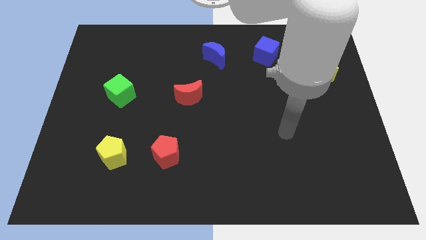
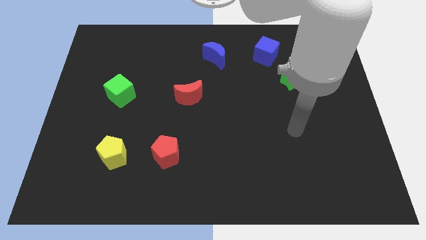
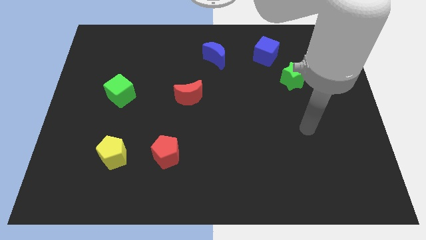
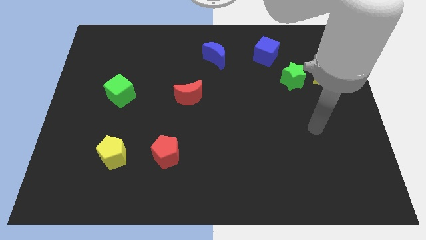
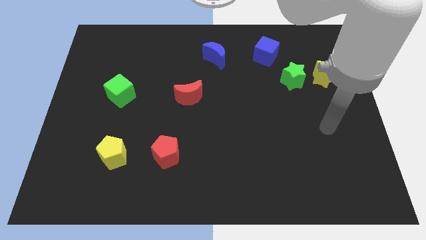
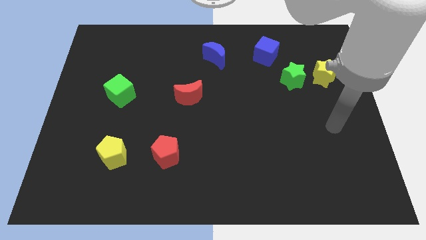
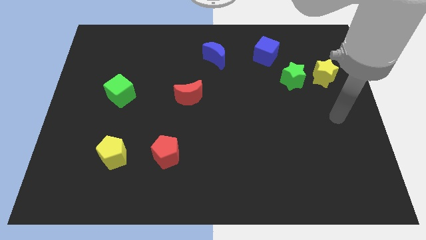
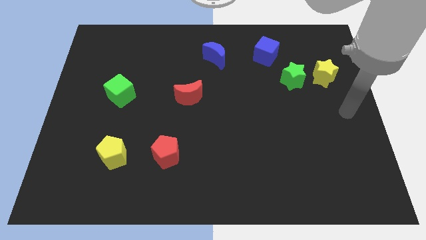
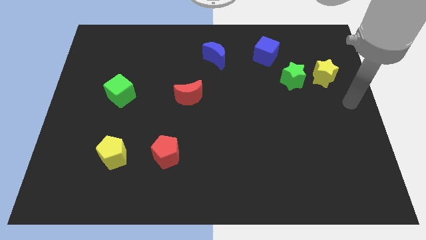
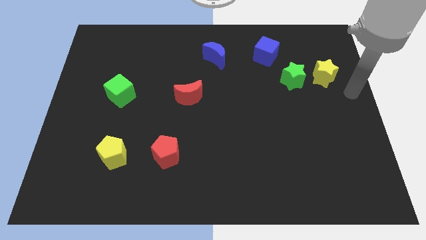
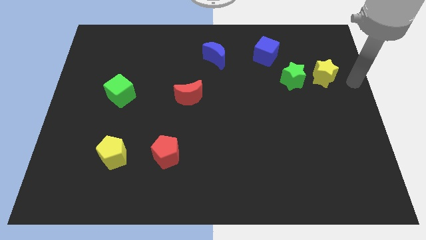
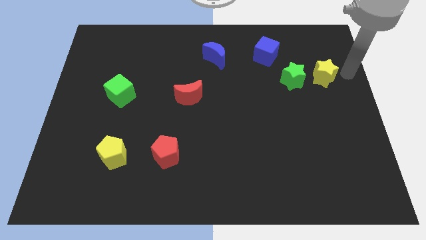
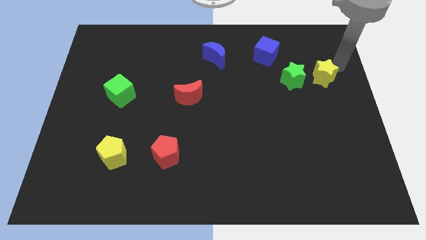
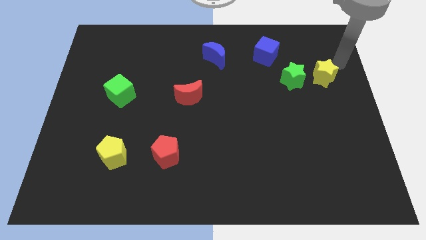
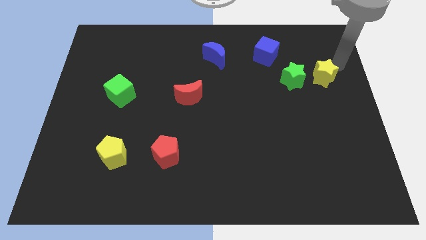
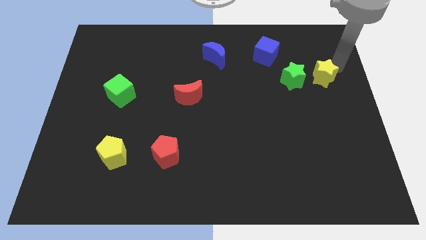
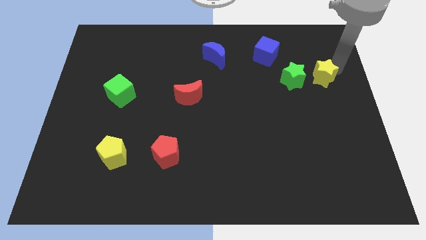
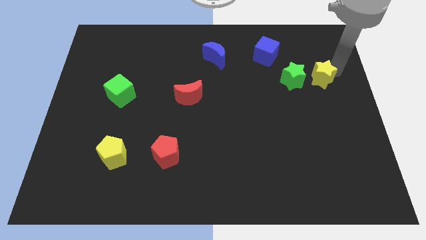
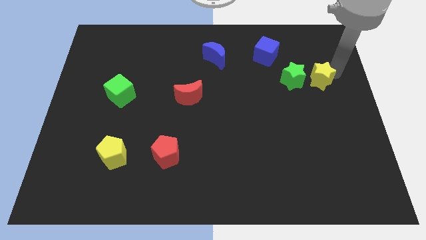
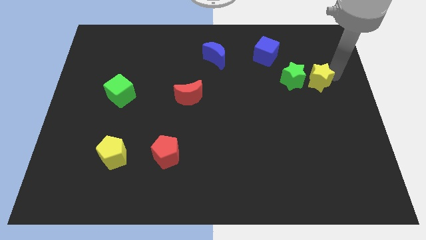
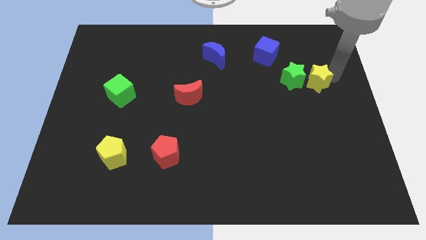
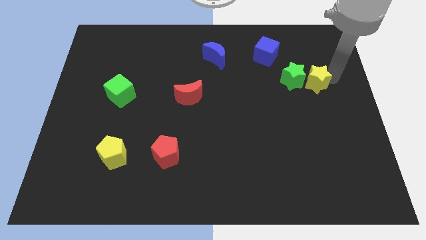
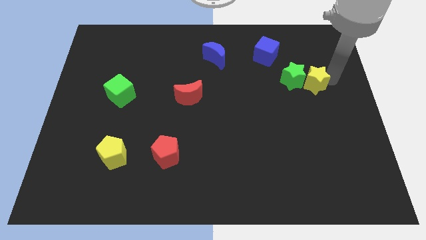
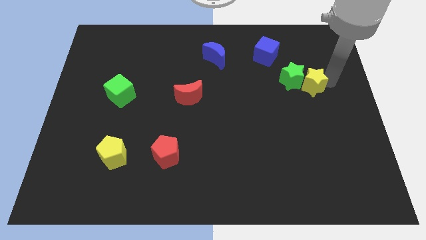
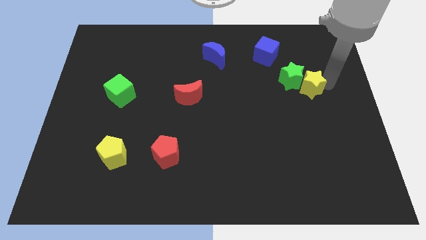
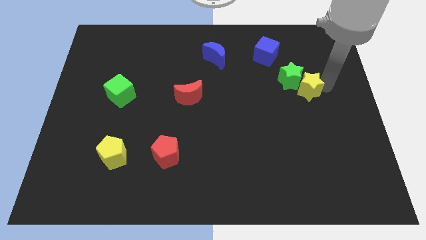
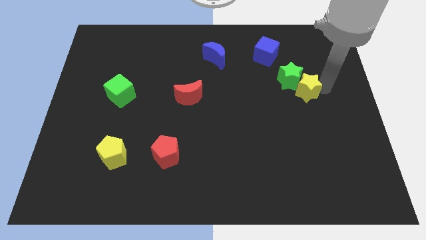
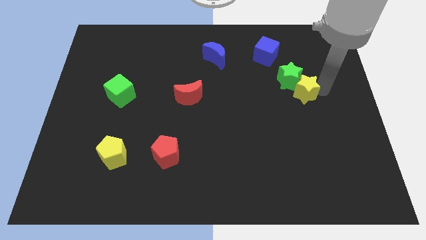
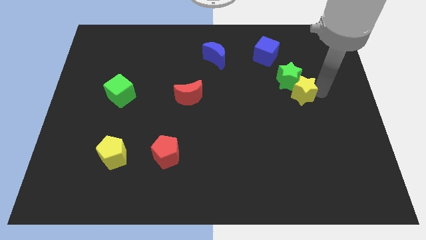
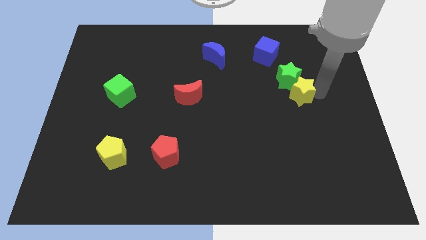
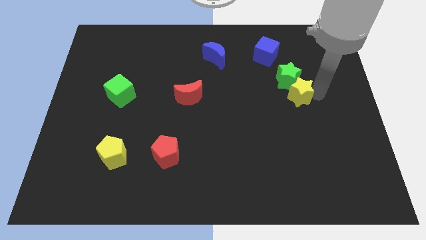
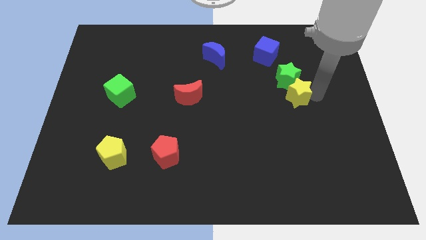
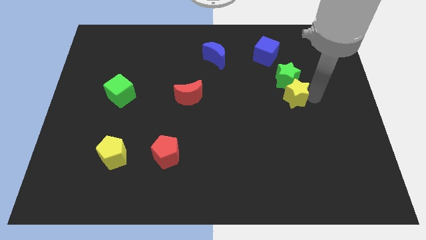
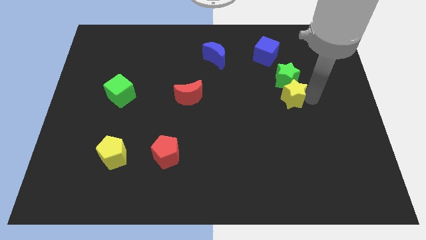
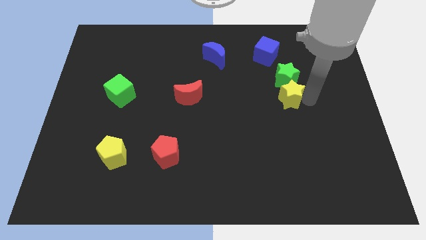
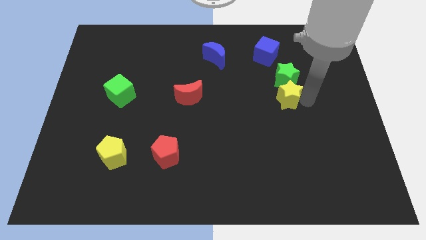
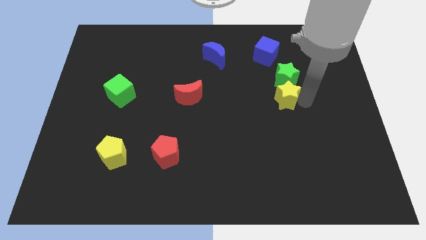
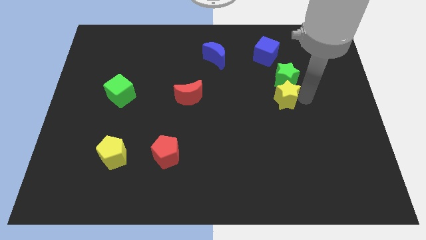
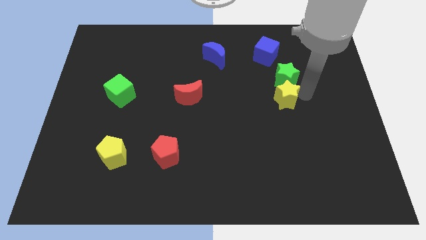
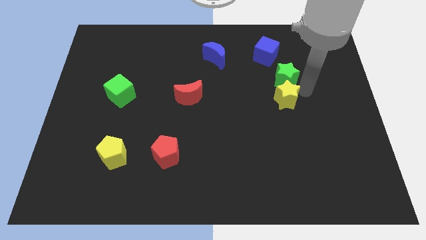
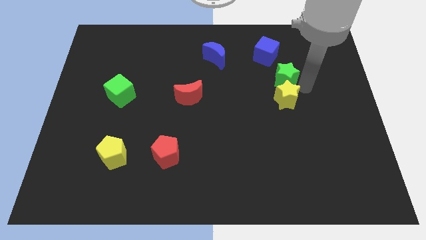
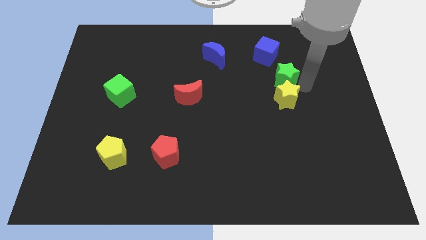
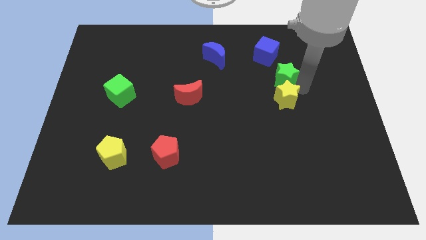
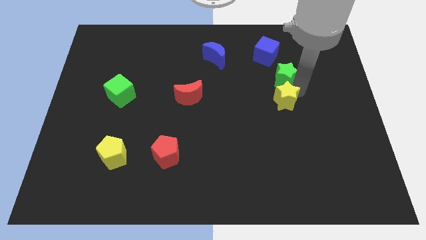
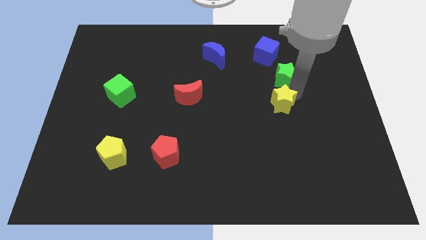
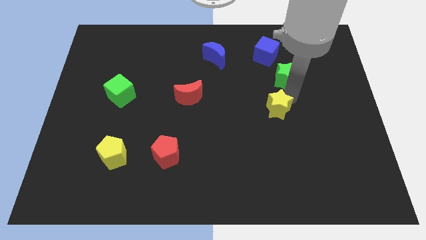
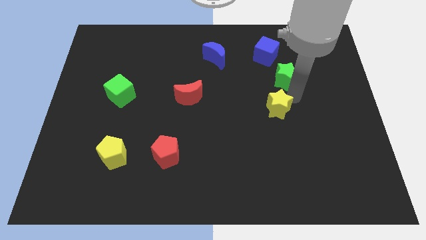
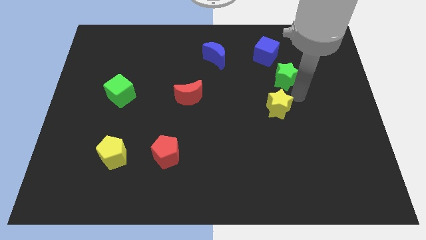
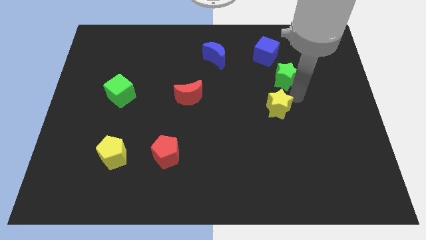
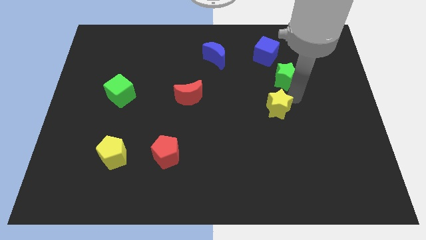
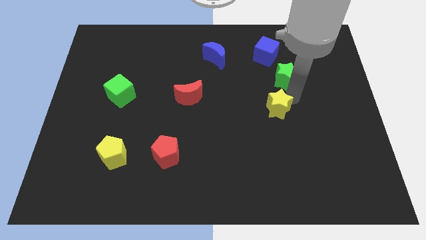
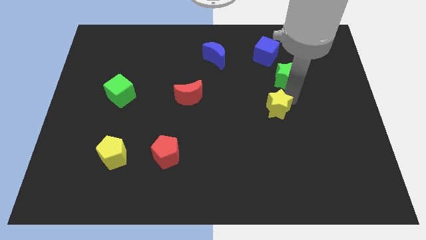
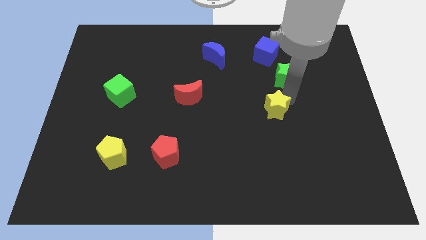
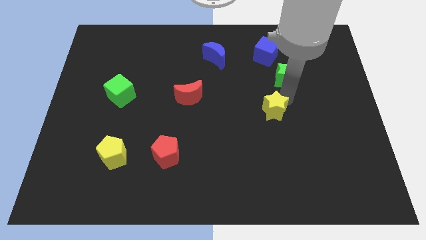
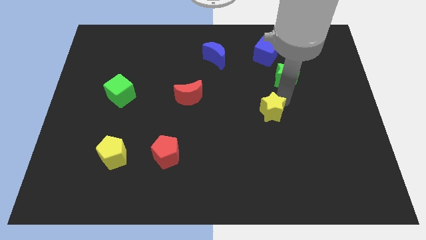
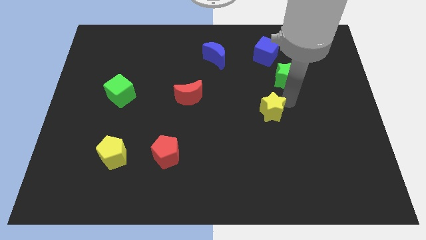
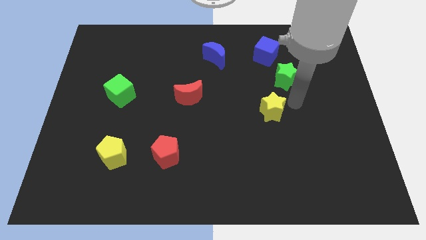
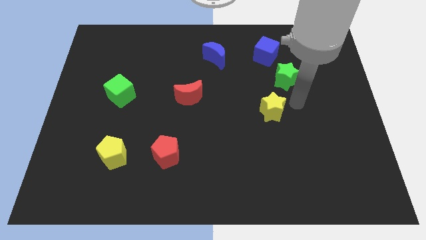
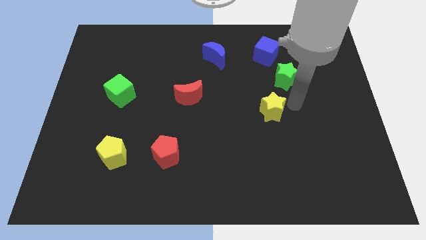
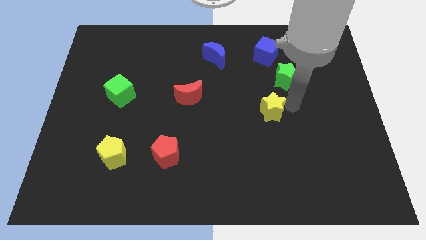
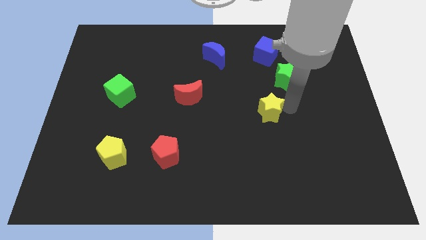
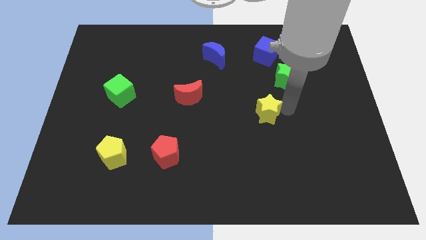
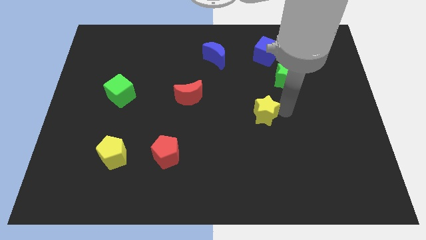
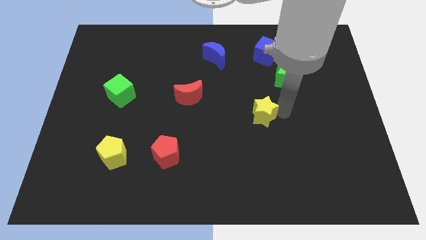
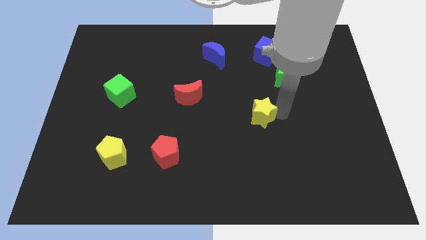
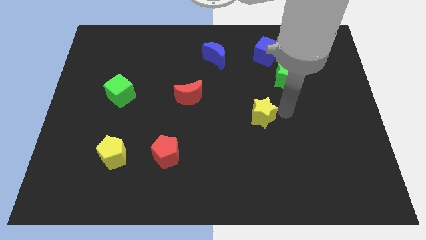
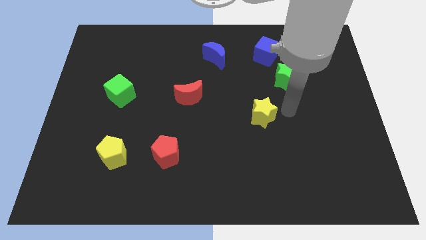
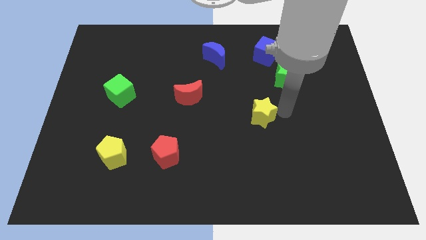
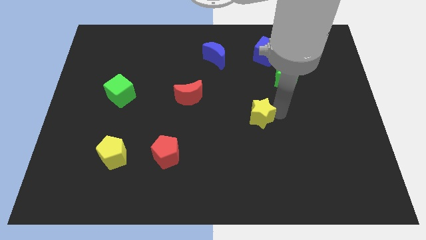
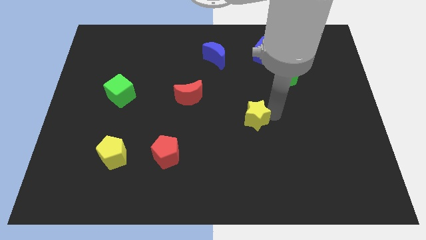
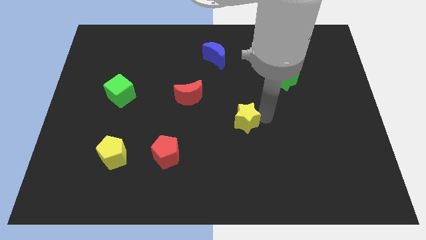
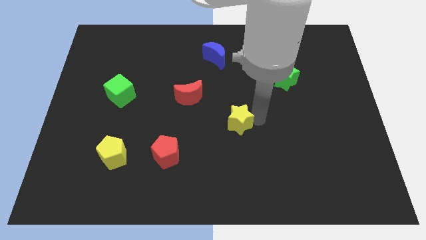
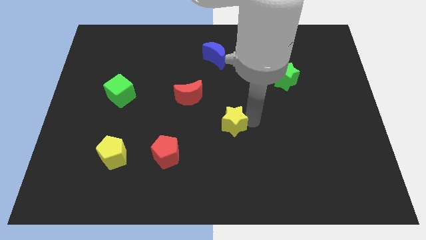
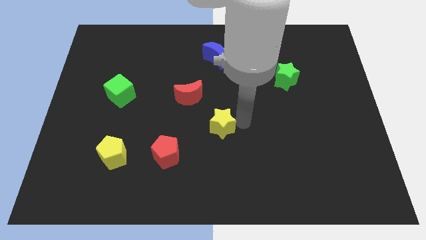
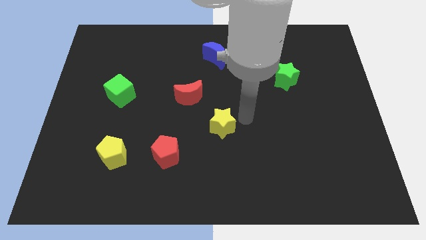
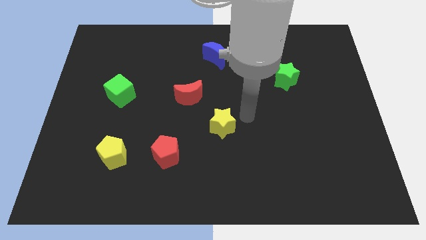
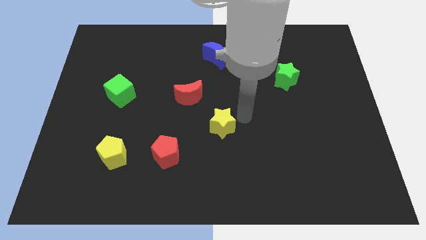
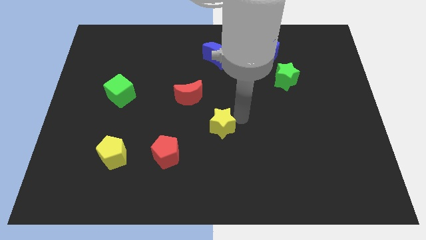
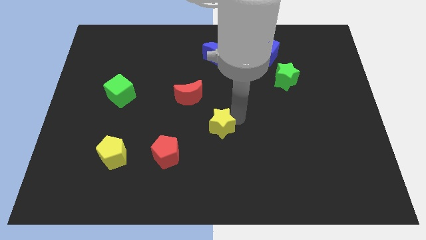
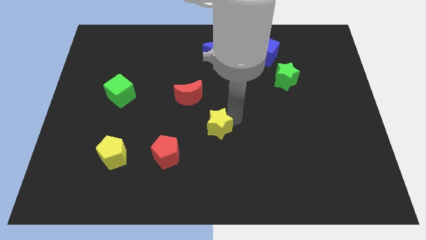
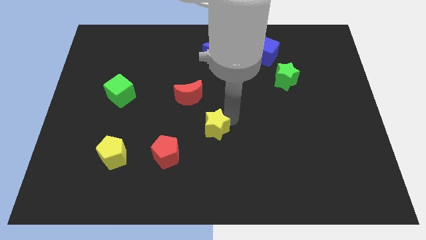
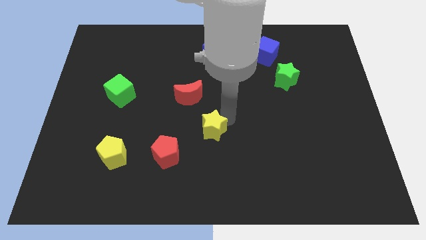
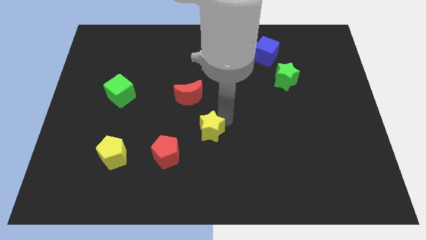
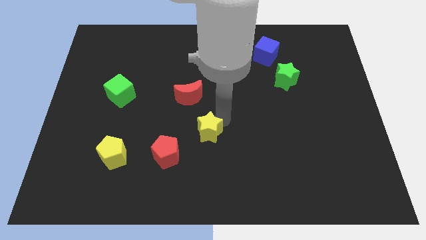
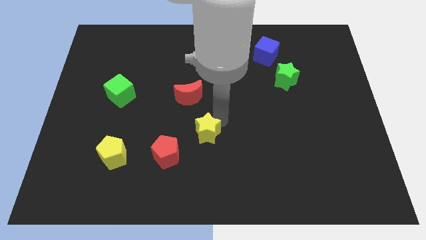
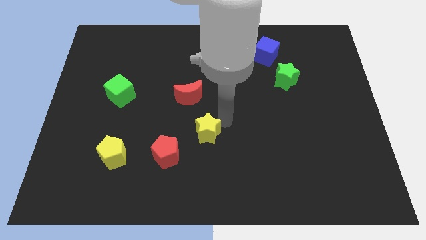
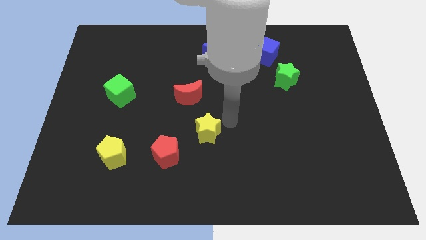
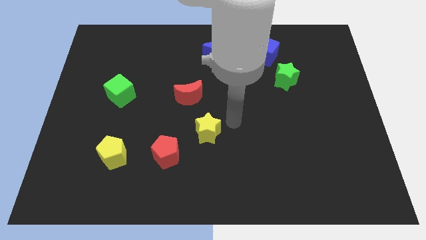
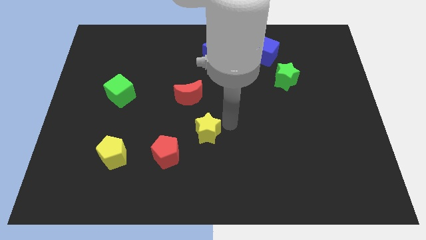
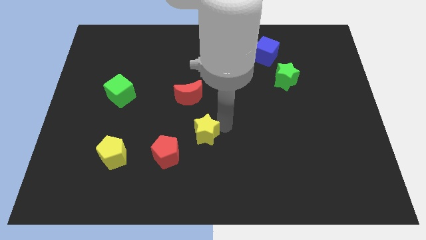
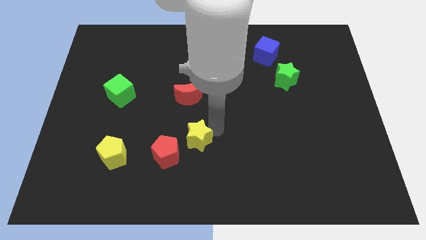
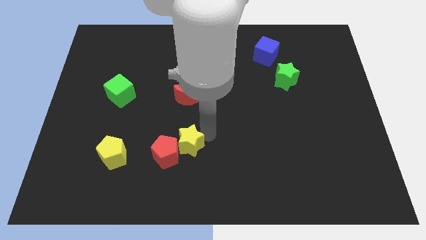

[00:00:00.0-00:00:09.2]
put the yellow star to the red pentagon
